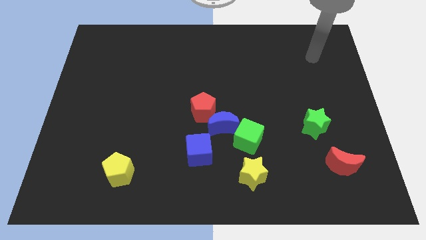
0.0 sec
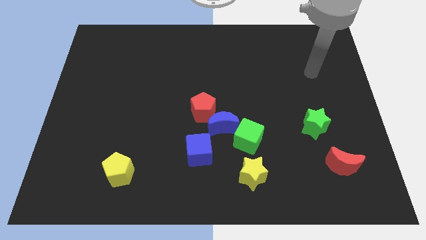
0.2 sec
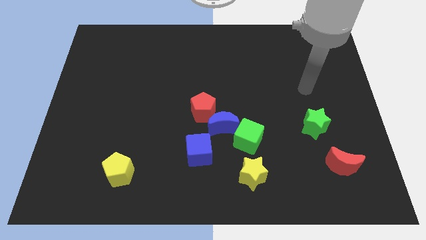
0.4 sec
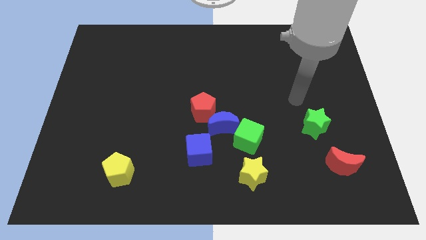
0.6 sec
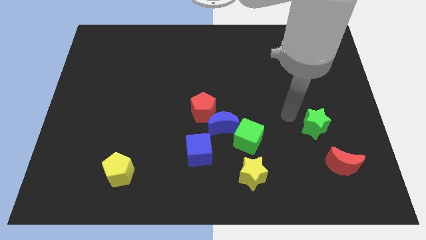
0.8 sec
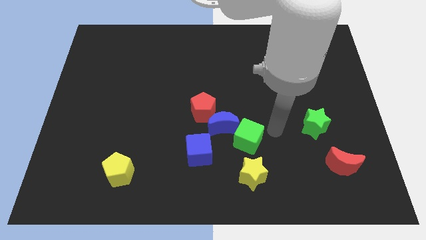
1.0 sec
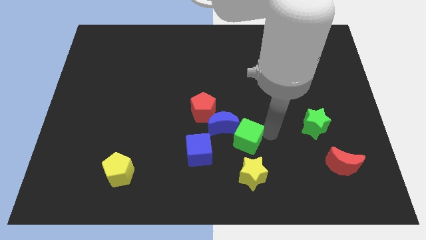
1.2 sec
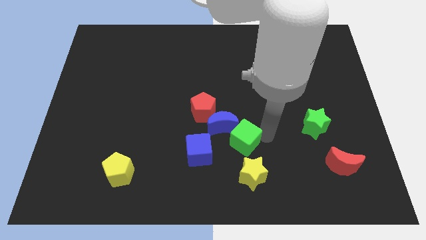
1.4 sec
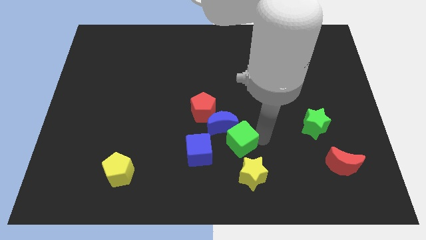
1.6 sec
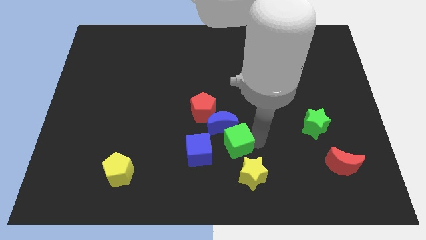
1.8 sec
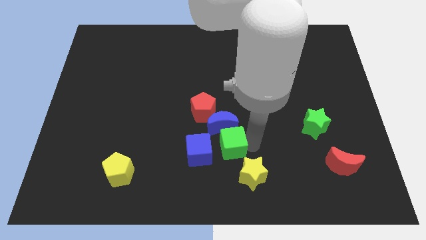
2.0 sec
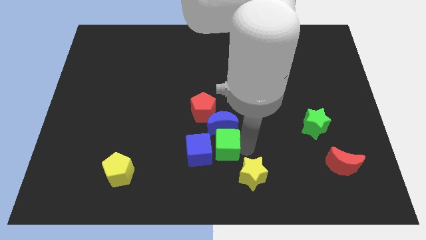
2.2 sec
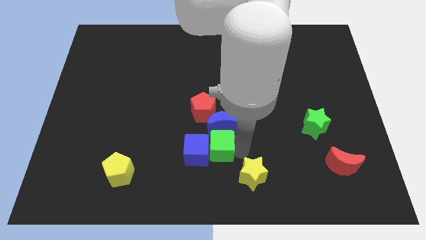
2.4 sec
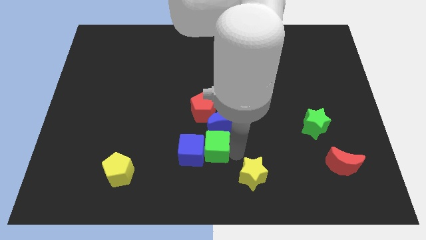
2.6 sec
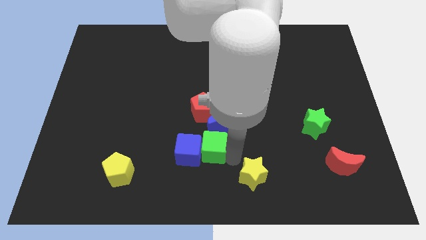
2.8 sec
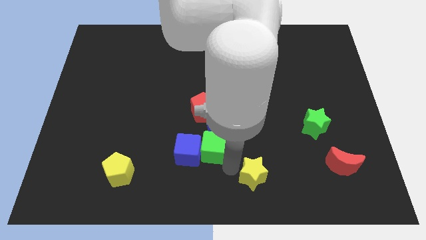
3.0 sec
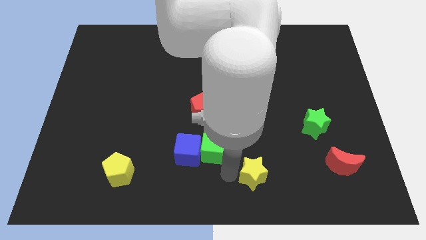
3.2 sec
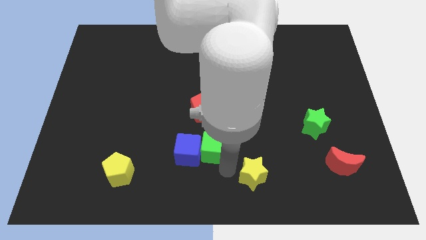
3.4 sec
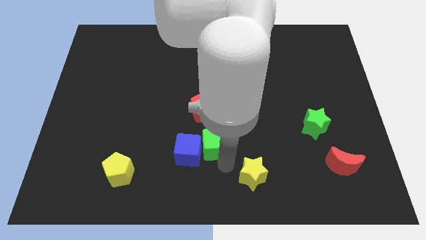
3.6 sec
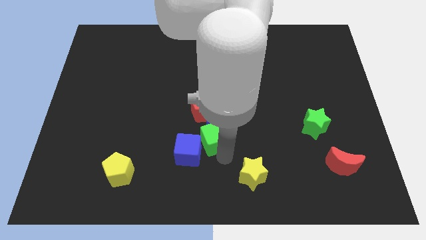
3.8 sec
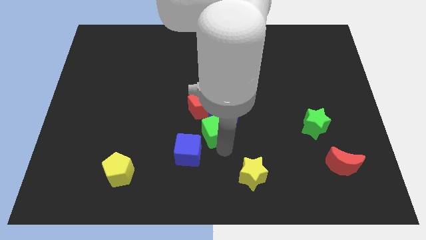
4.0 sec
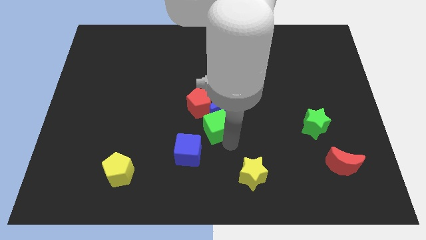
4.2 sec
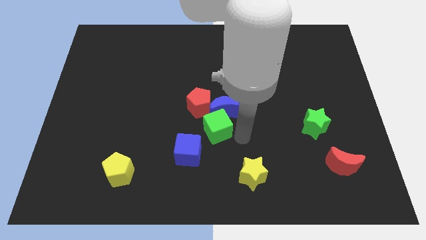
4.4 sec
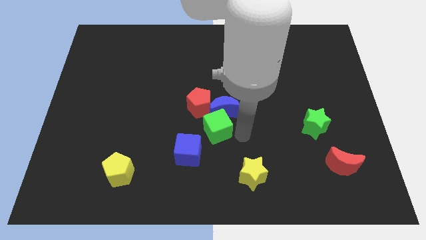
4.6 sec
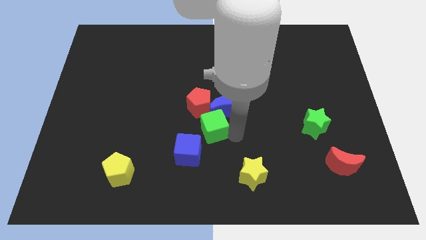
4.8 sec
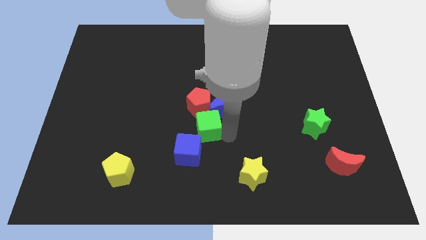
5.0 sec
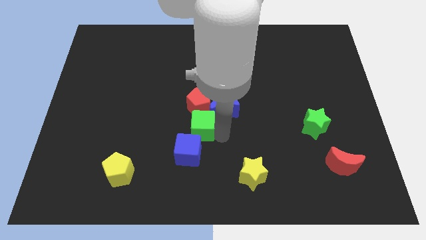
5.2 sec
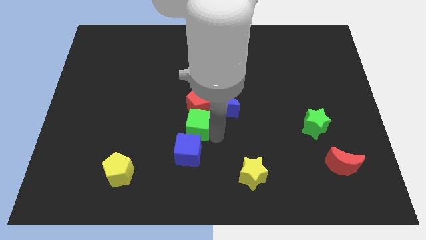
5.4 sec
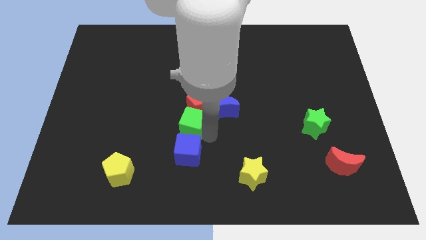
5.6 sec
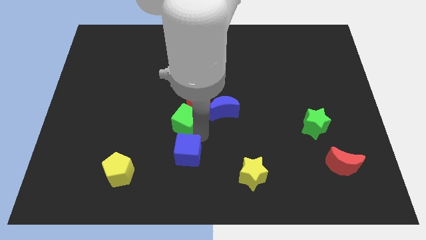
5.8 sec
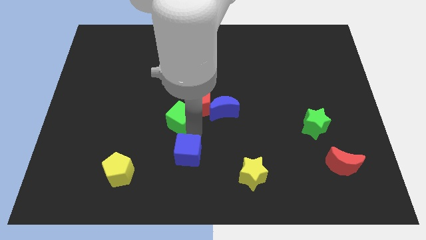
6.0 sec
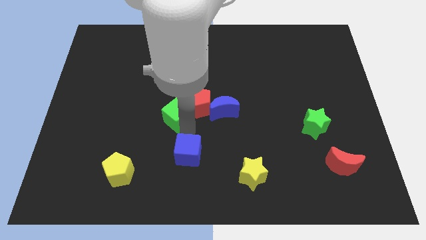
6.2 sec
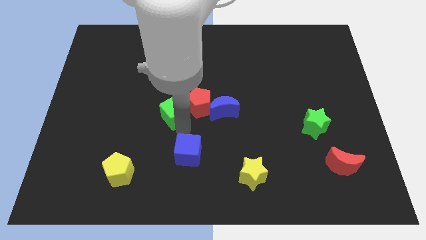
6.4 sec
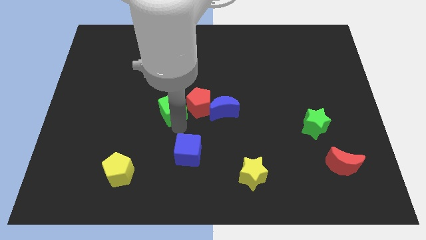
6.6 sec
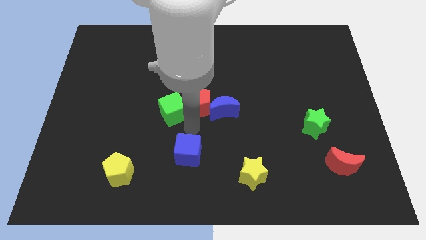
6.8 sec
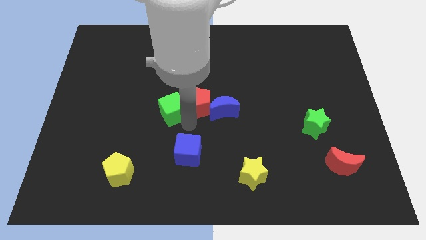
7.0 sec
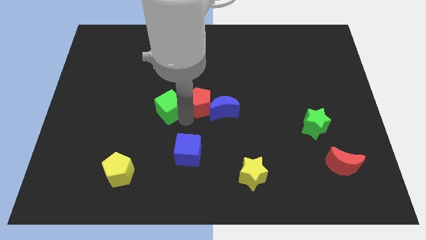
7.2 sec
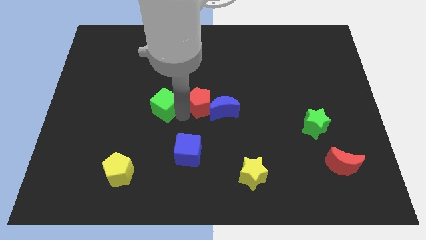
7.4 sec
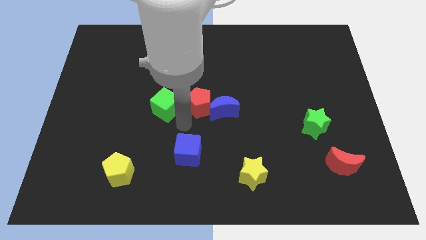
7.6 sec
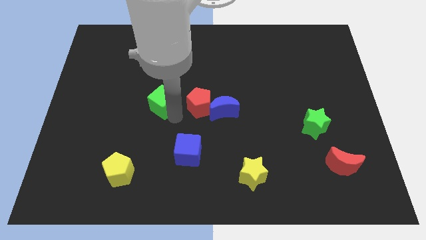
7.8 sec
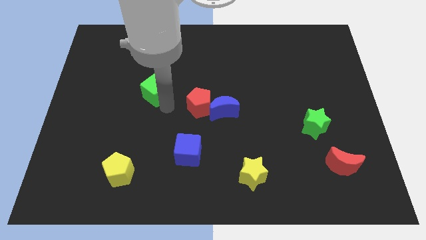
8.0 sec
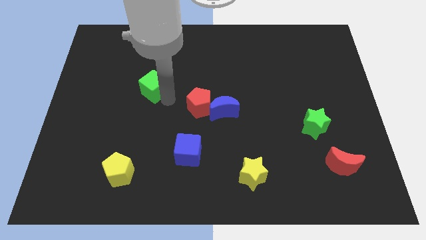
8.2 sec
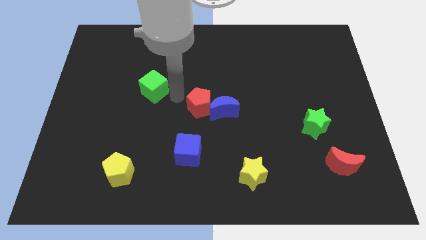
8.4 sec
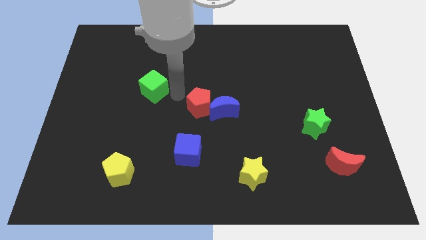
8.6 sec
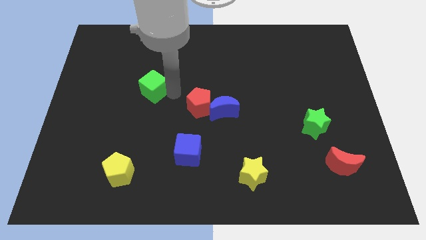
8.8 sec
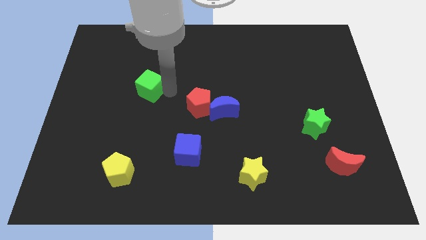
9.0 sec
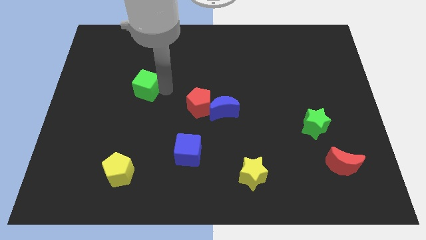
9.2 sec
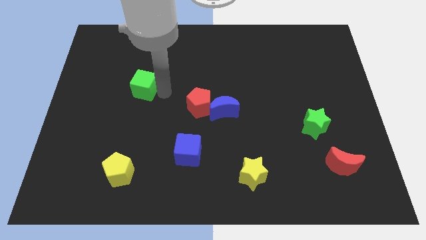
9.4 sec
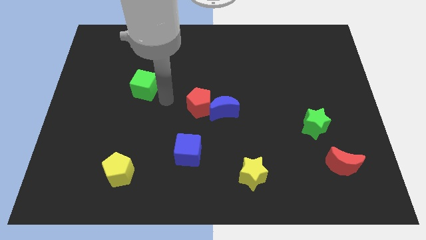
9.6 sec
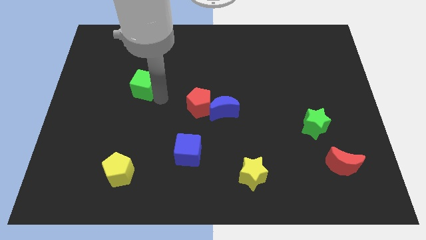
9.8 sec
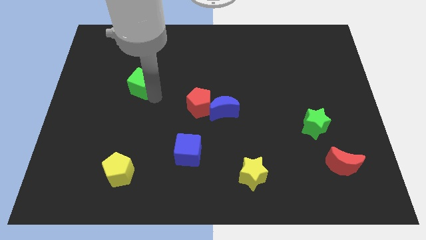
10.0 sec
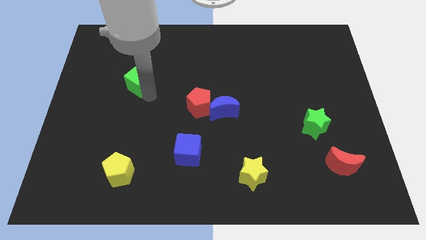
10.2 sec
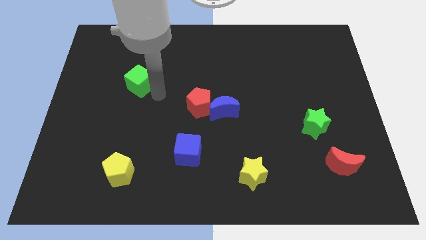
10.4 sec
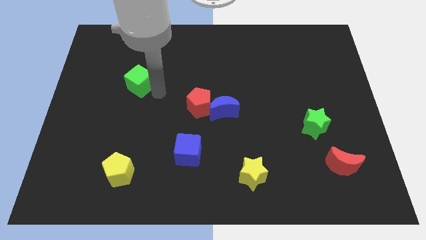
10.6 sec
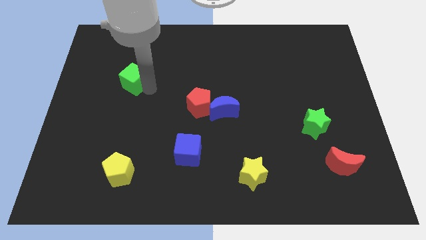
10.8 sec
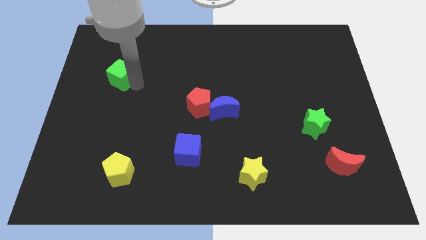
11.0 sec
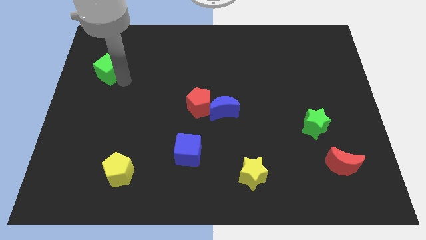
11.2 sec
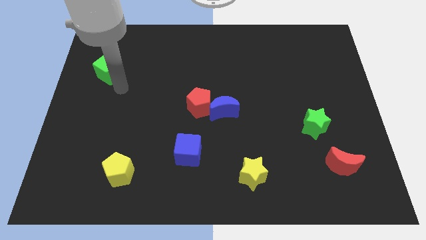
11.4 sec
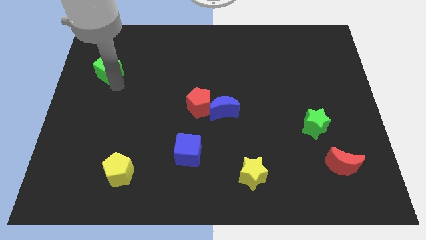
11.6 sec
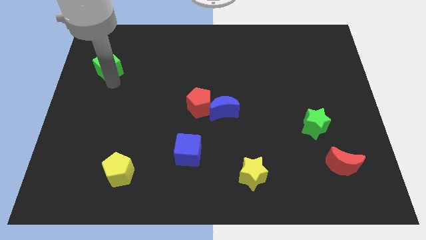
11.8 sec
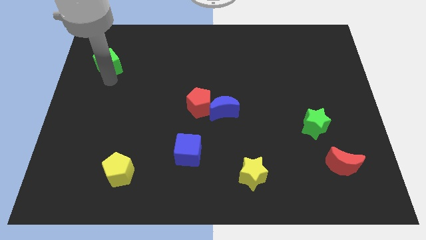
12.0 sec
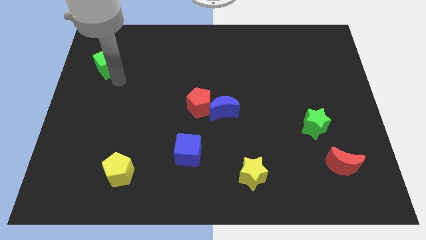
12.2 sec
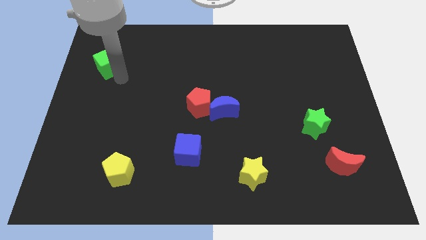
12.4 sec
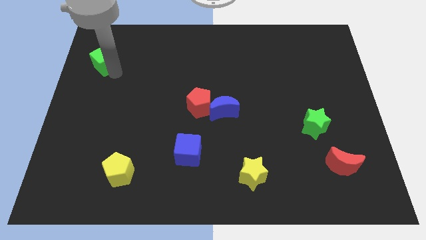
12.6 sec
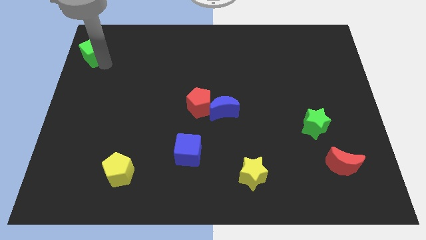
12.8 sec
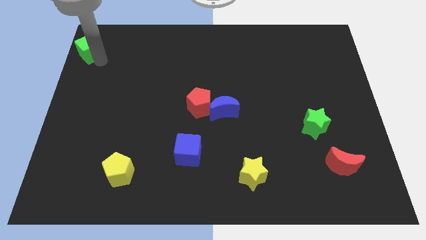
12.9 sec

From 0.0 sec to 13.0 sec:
slide the green cube to the upper left corner
